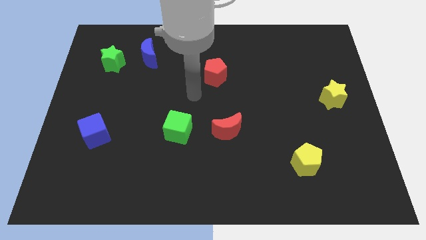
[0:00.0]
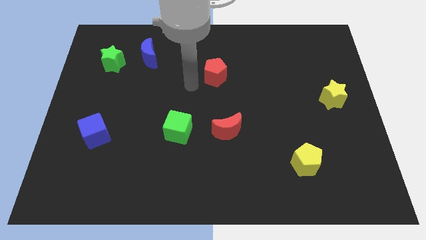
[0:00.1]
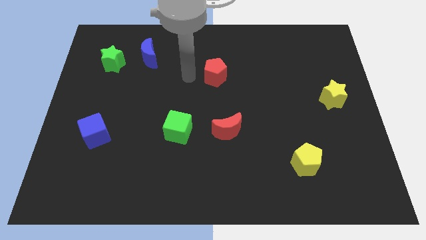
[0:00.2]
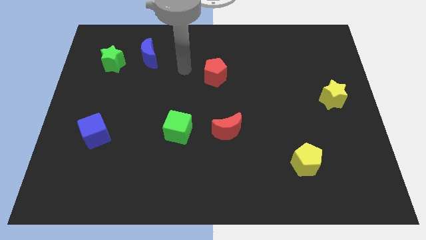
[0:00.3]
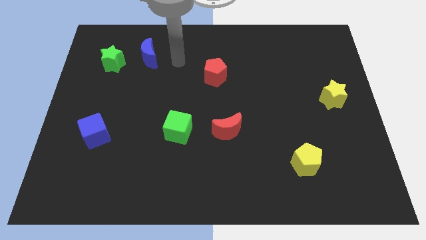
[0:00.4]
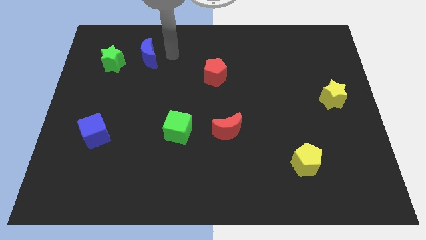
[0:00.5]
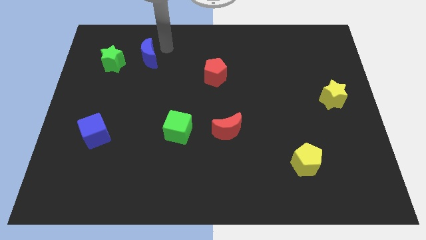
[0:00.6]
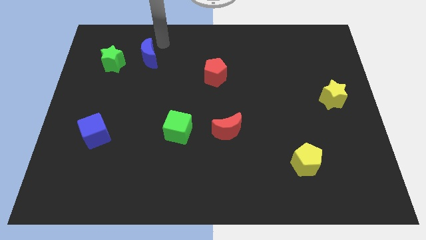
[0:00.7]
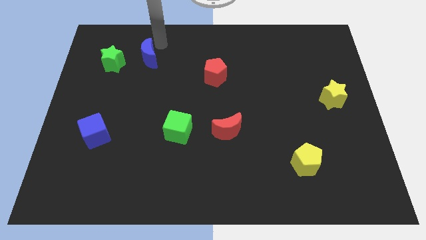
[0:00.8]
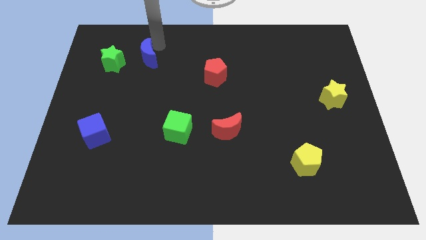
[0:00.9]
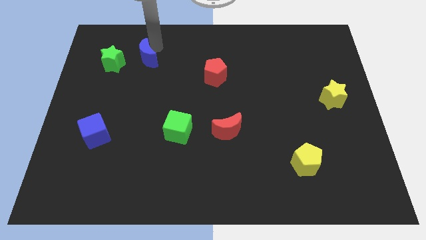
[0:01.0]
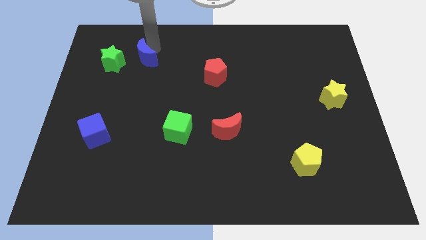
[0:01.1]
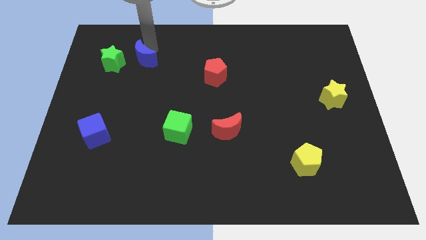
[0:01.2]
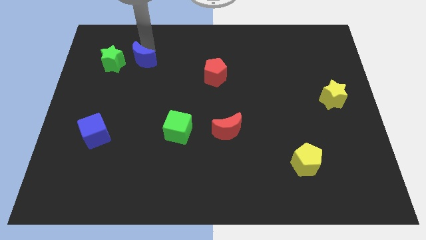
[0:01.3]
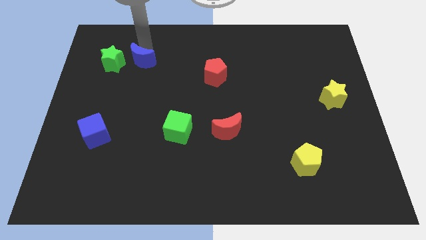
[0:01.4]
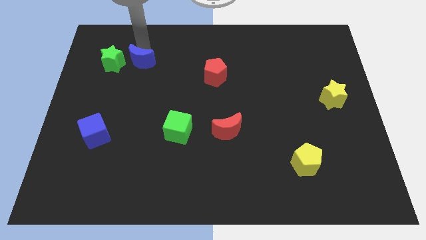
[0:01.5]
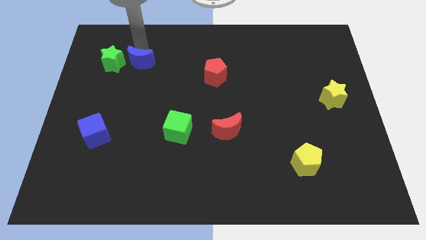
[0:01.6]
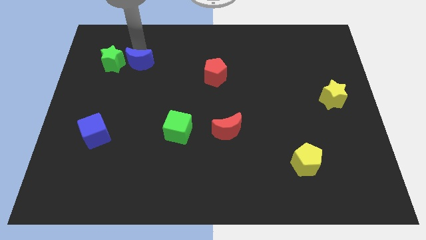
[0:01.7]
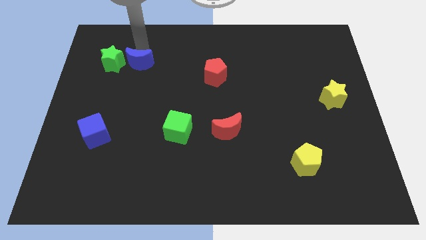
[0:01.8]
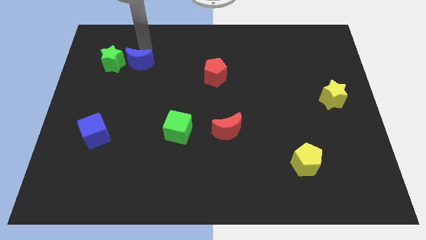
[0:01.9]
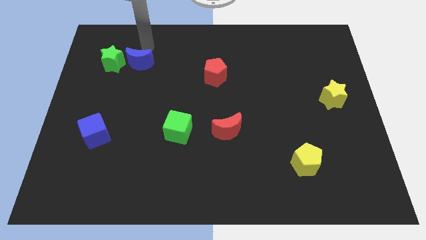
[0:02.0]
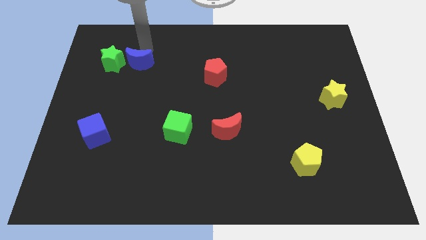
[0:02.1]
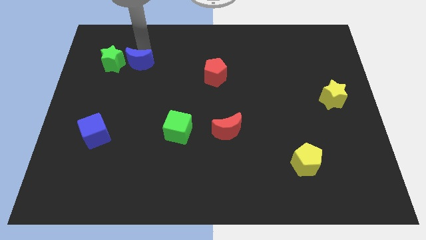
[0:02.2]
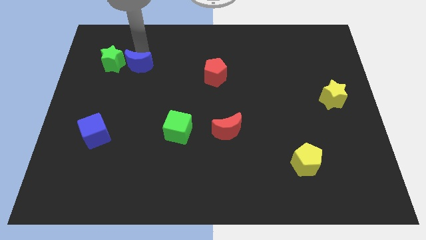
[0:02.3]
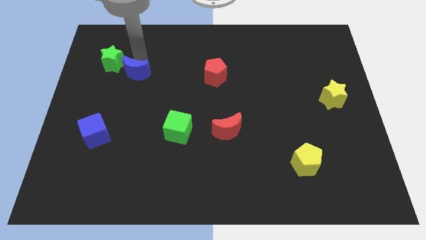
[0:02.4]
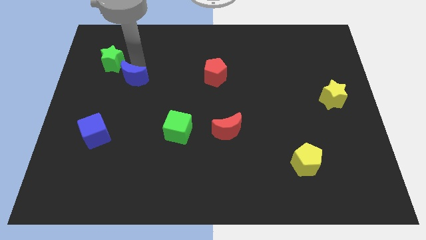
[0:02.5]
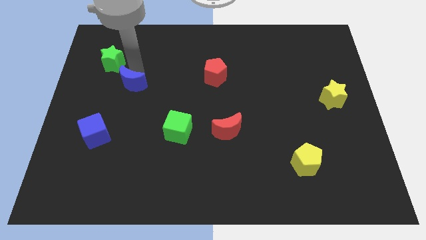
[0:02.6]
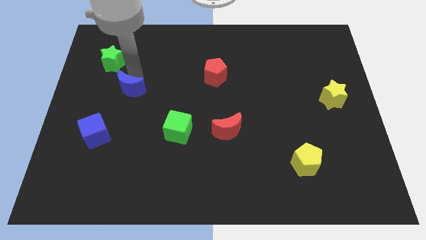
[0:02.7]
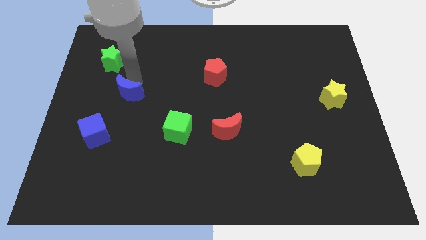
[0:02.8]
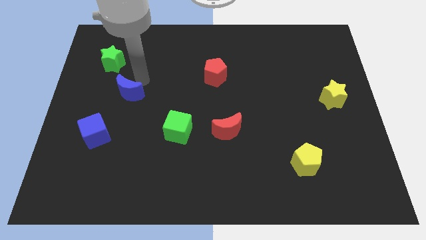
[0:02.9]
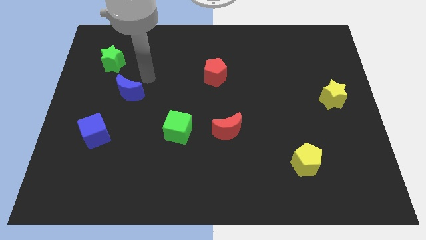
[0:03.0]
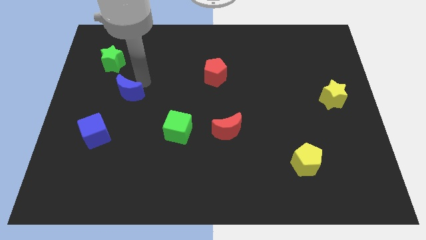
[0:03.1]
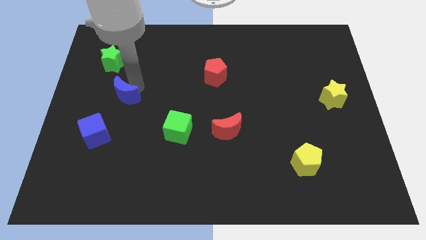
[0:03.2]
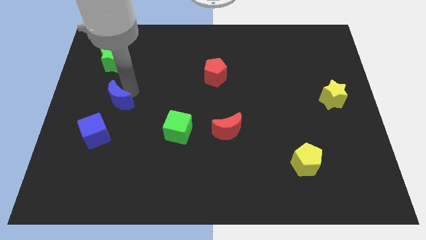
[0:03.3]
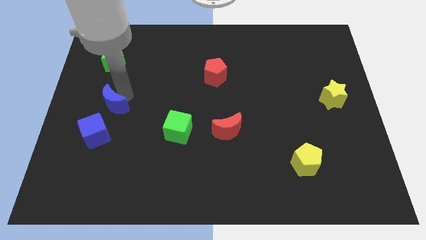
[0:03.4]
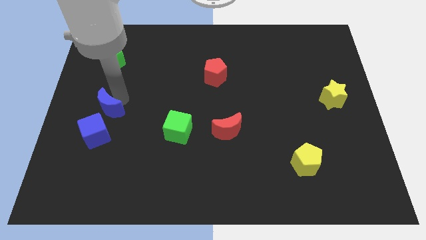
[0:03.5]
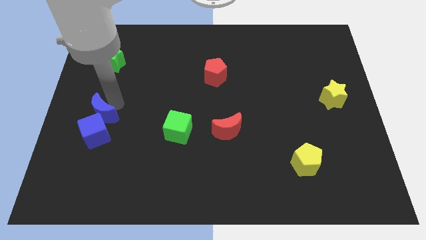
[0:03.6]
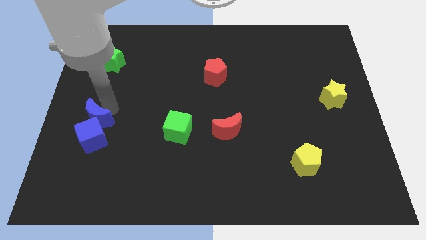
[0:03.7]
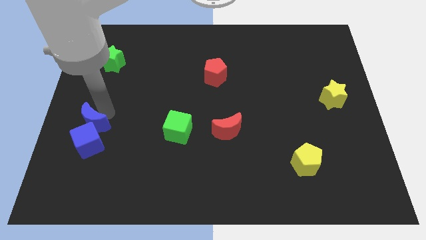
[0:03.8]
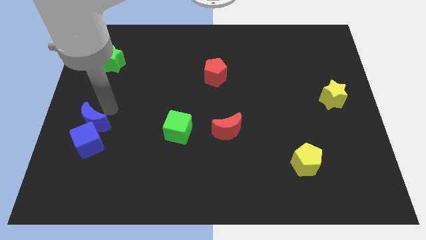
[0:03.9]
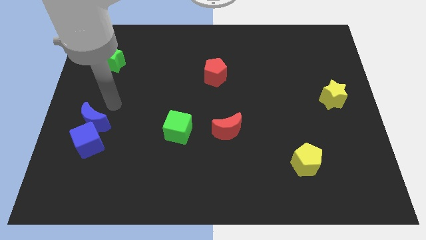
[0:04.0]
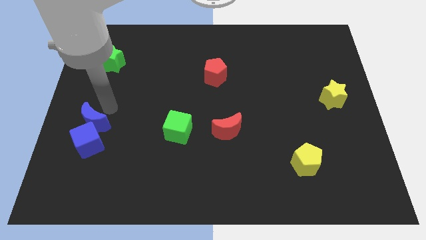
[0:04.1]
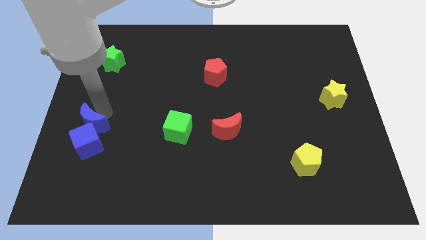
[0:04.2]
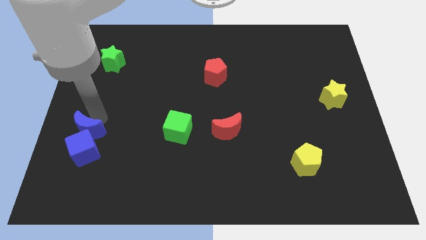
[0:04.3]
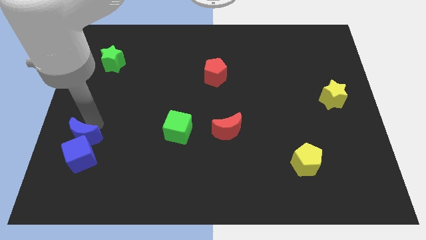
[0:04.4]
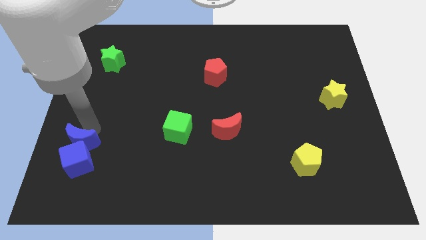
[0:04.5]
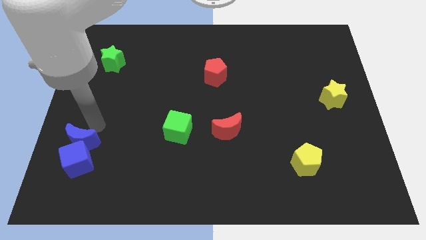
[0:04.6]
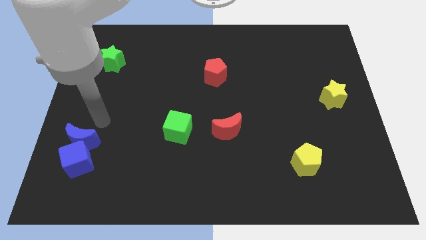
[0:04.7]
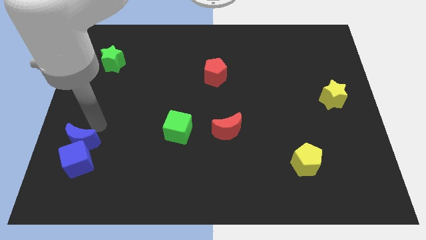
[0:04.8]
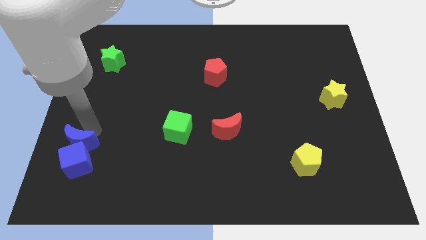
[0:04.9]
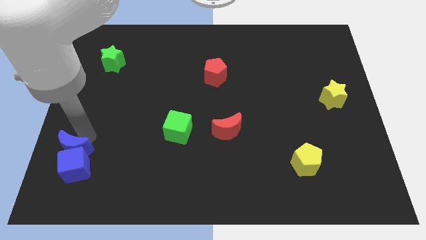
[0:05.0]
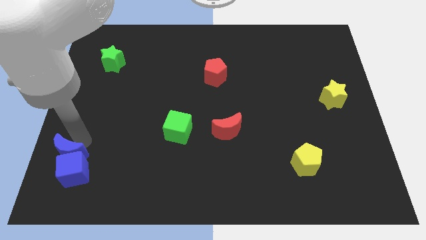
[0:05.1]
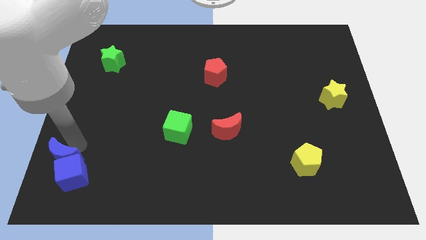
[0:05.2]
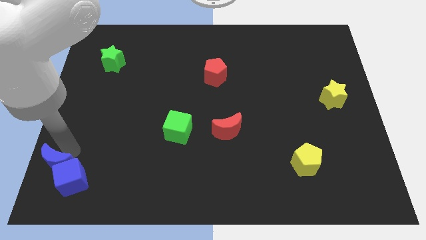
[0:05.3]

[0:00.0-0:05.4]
move the blue moon to the bottom left corner

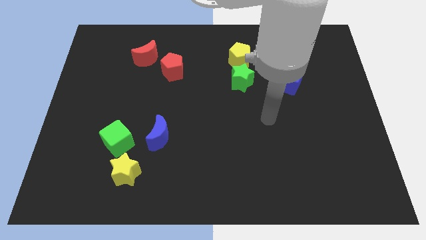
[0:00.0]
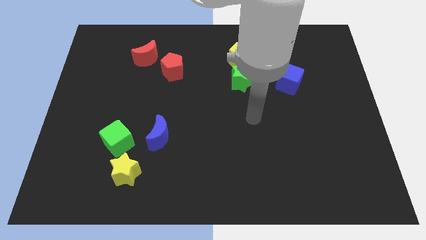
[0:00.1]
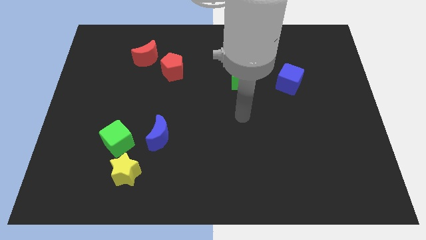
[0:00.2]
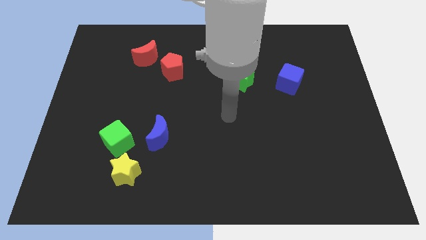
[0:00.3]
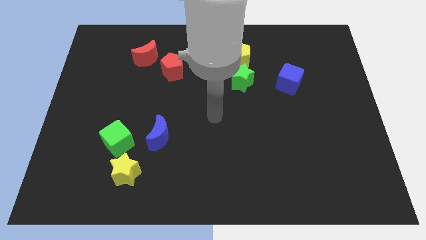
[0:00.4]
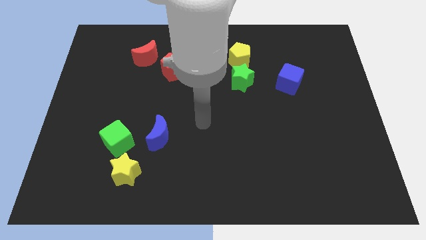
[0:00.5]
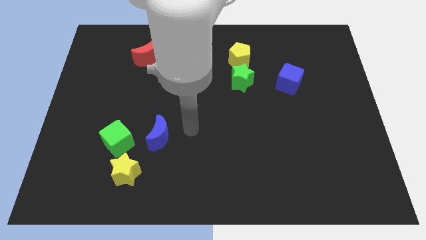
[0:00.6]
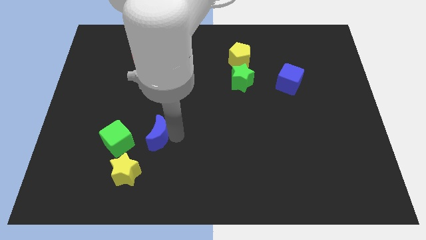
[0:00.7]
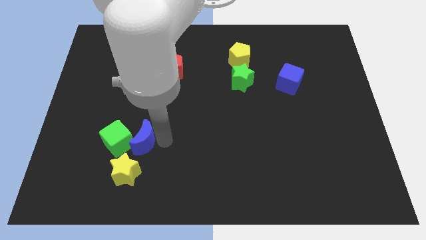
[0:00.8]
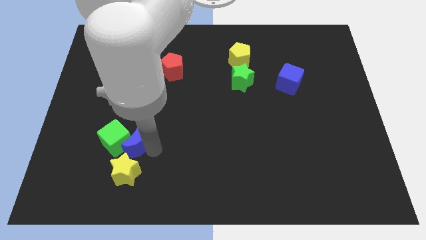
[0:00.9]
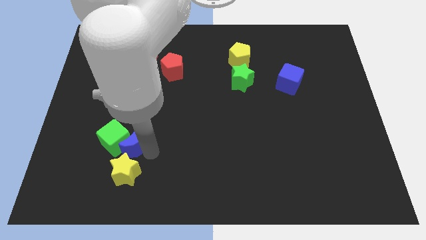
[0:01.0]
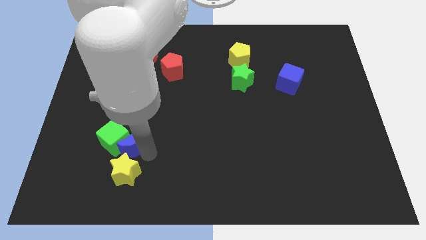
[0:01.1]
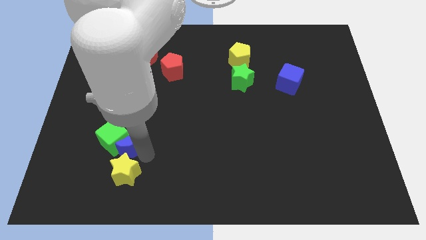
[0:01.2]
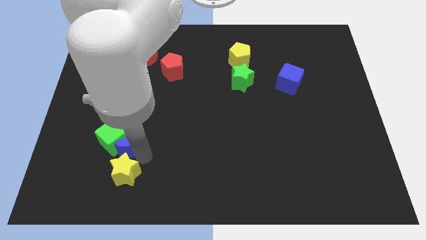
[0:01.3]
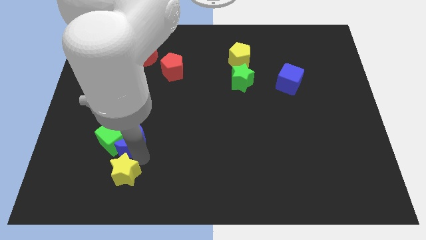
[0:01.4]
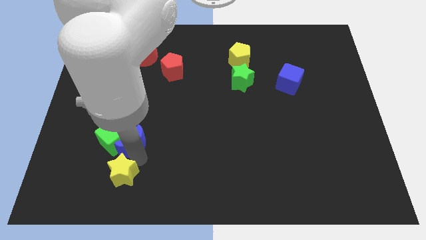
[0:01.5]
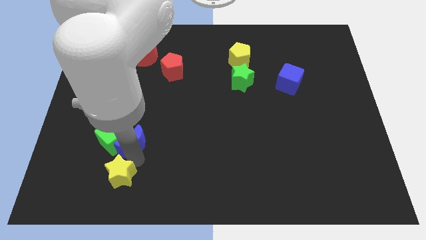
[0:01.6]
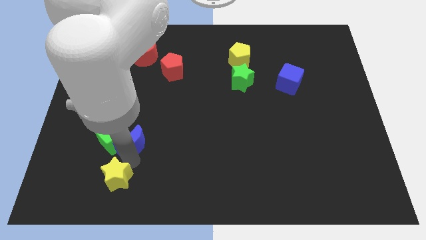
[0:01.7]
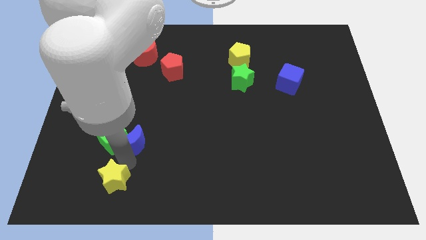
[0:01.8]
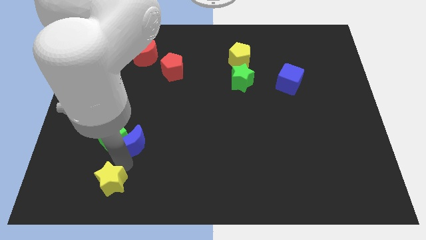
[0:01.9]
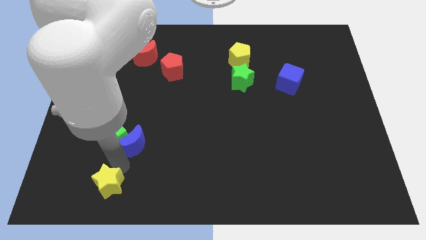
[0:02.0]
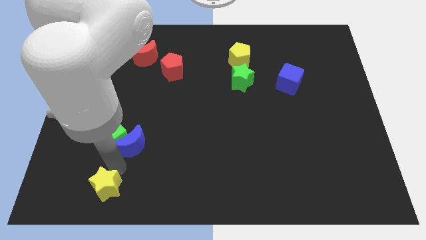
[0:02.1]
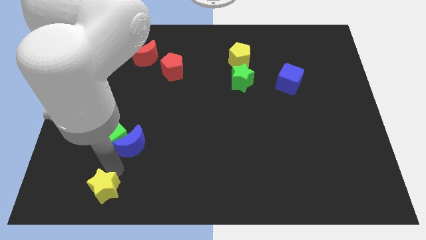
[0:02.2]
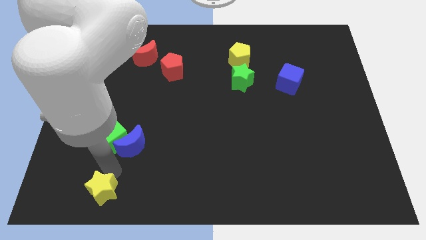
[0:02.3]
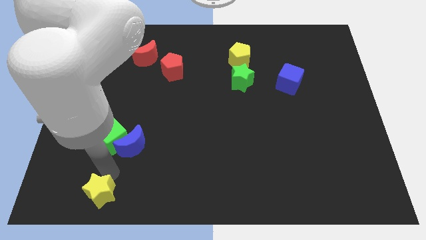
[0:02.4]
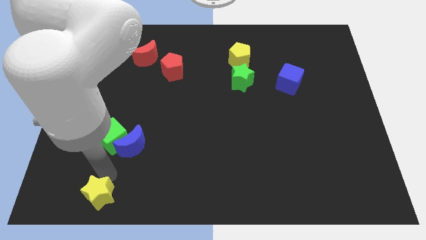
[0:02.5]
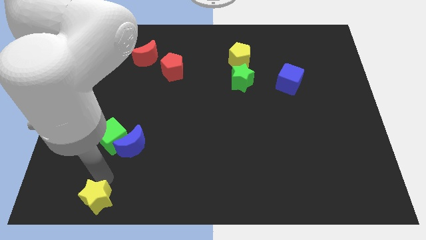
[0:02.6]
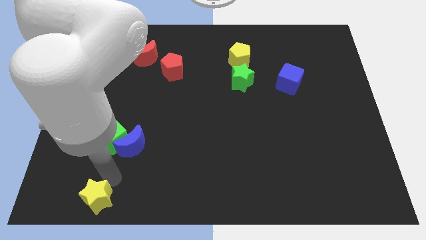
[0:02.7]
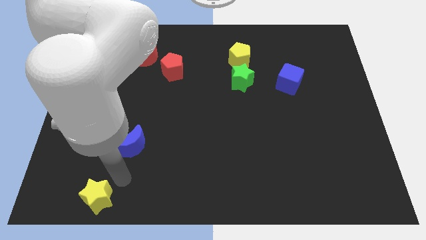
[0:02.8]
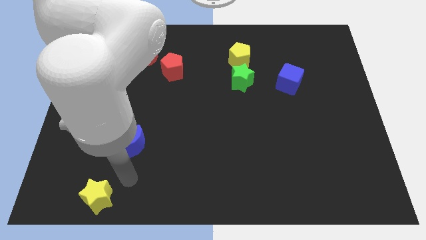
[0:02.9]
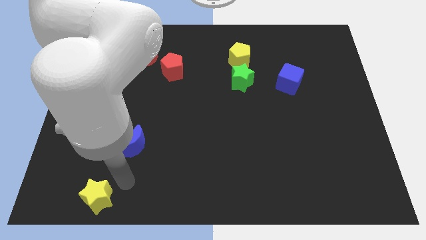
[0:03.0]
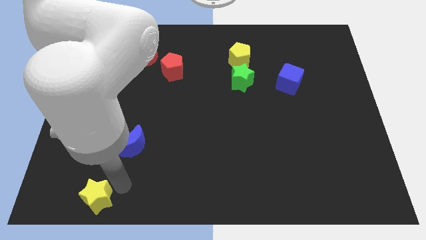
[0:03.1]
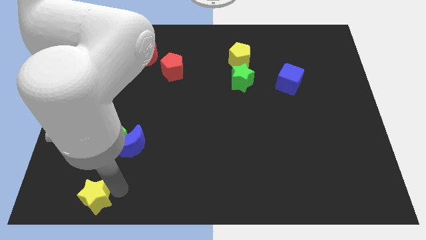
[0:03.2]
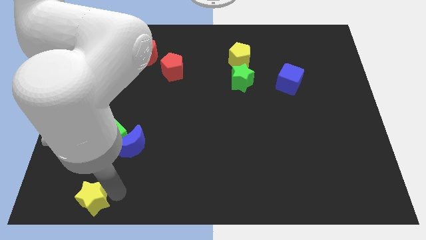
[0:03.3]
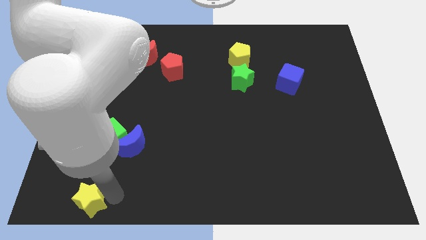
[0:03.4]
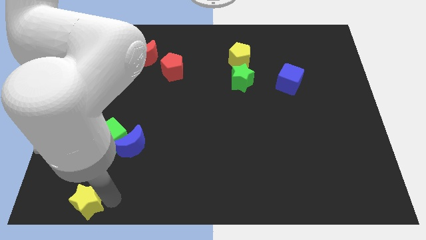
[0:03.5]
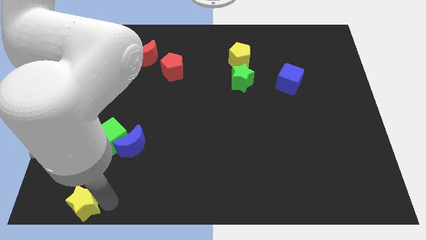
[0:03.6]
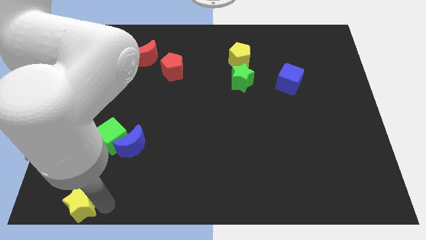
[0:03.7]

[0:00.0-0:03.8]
put the yellow star to the bottom left of the board
